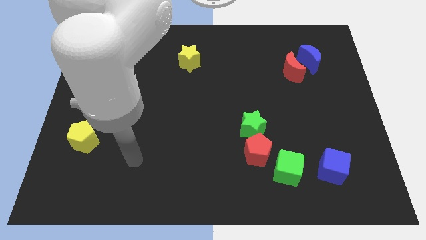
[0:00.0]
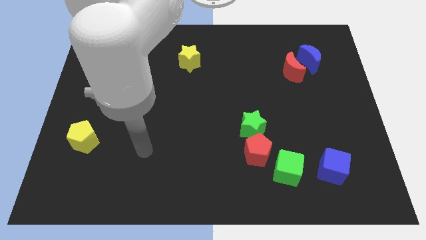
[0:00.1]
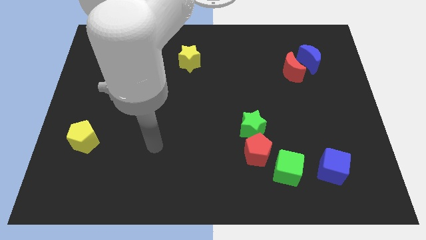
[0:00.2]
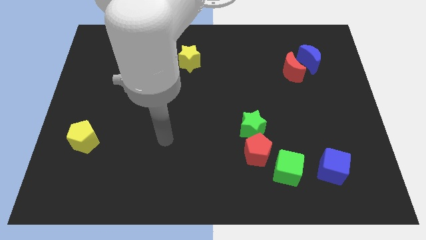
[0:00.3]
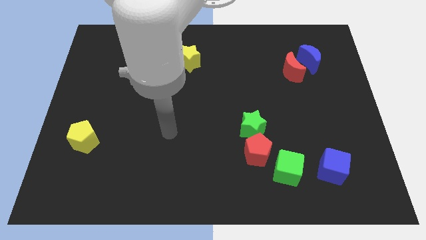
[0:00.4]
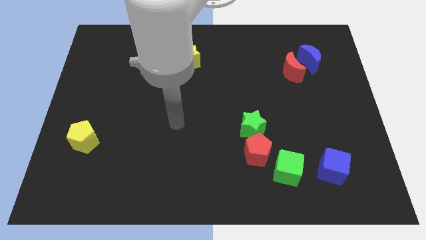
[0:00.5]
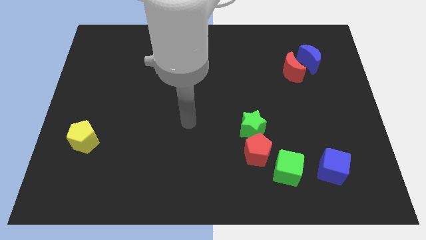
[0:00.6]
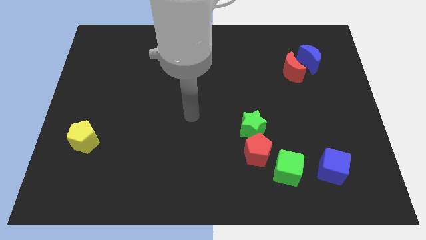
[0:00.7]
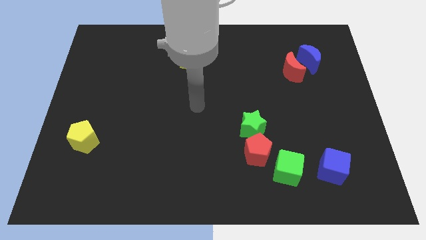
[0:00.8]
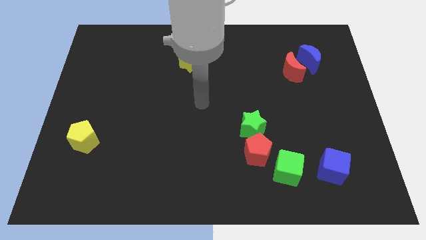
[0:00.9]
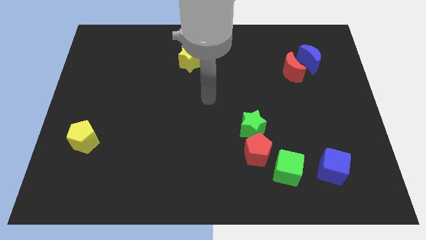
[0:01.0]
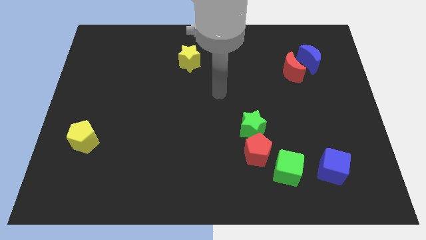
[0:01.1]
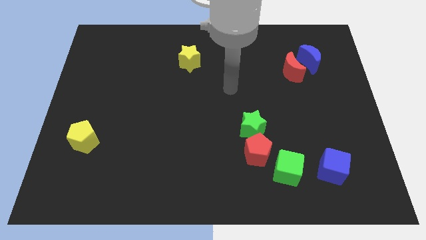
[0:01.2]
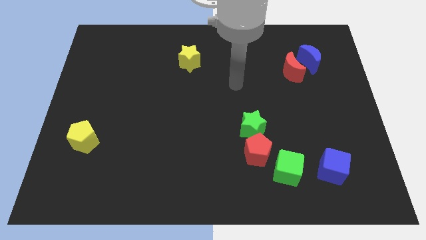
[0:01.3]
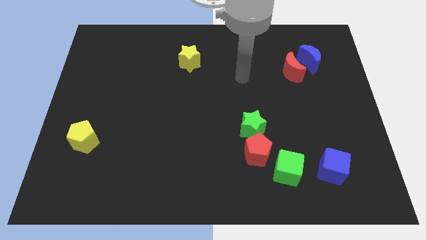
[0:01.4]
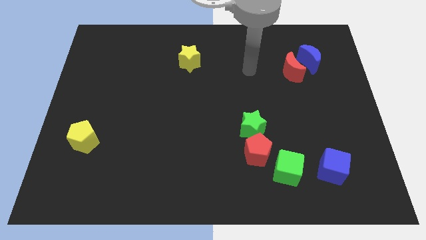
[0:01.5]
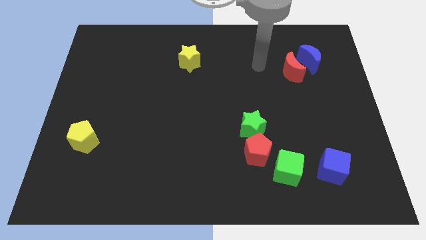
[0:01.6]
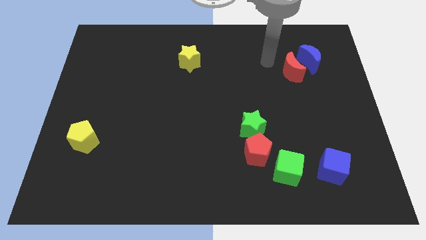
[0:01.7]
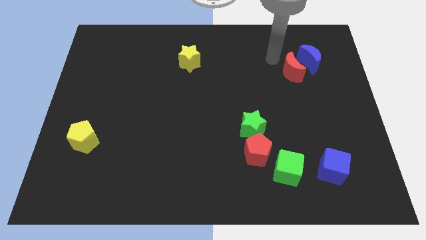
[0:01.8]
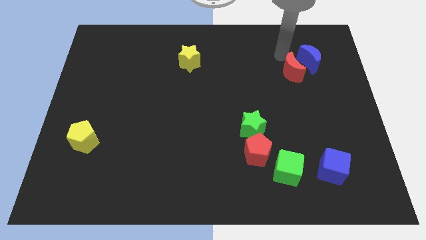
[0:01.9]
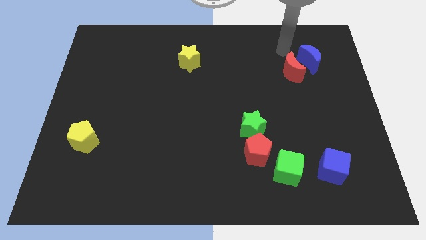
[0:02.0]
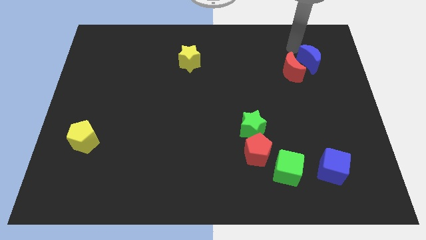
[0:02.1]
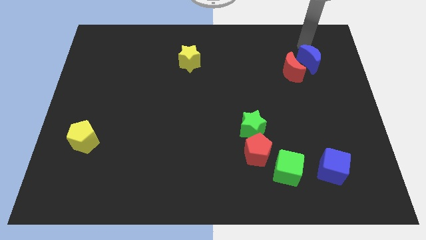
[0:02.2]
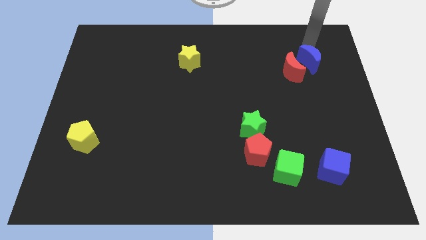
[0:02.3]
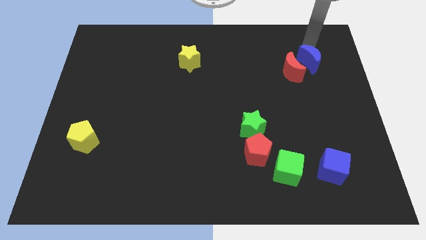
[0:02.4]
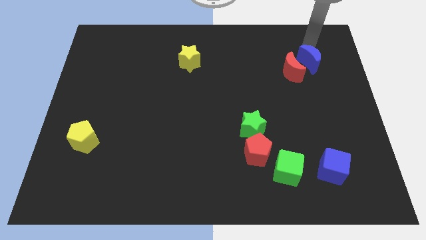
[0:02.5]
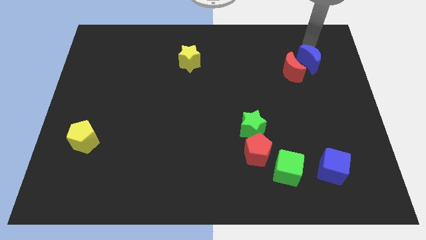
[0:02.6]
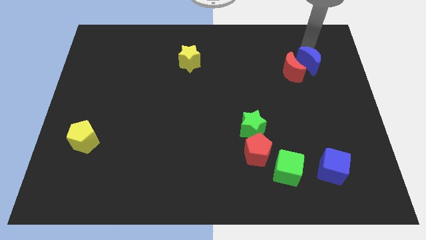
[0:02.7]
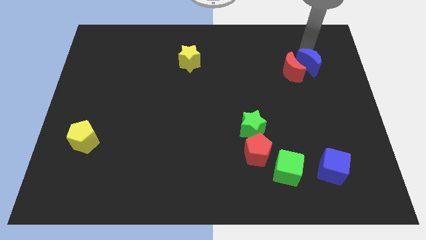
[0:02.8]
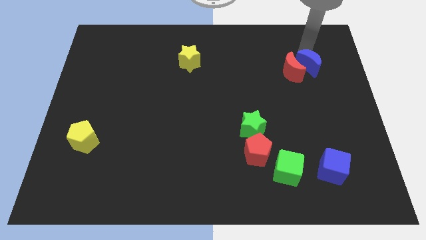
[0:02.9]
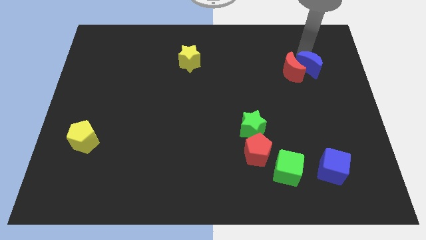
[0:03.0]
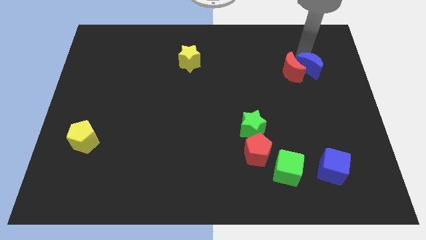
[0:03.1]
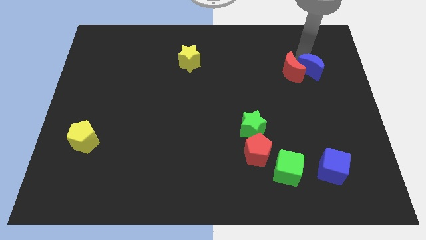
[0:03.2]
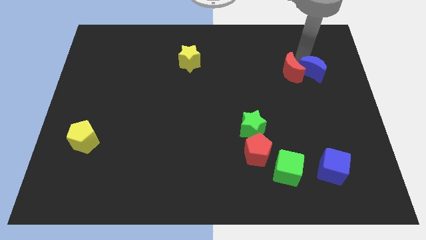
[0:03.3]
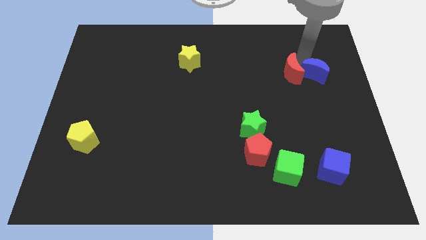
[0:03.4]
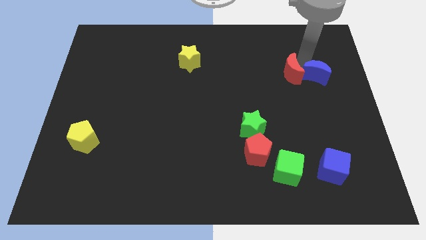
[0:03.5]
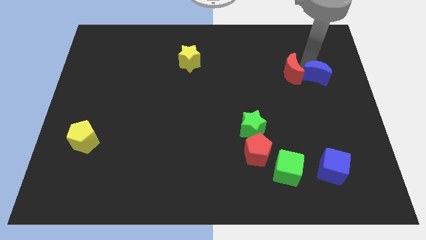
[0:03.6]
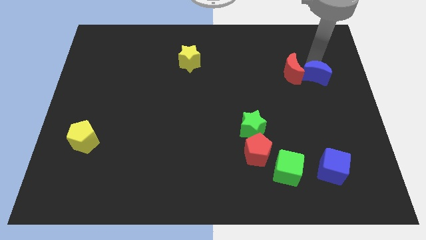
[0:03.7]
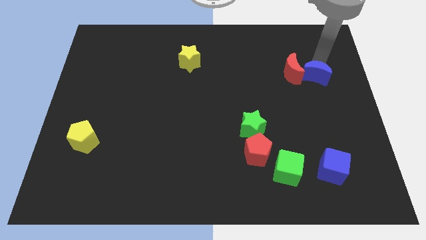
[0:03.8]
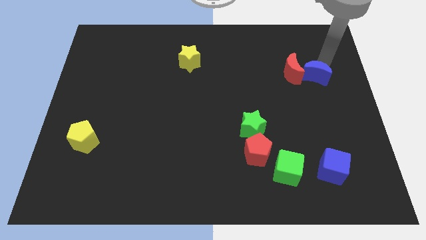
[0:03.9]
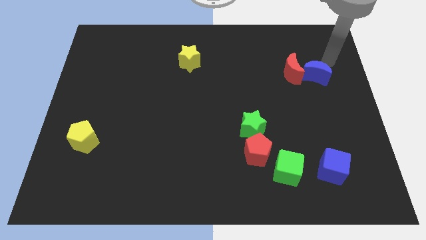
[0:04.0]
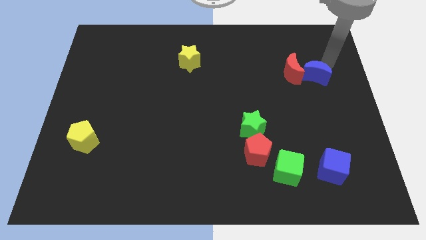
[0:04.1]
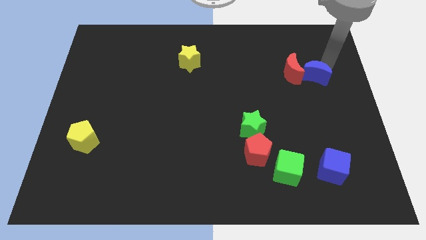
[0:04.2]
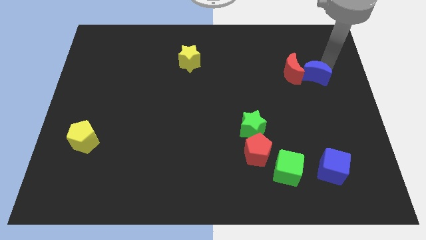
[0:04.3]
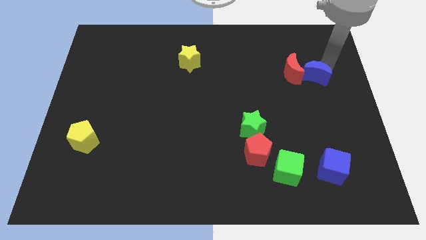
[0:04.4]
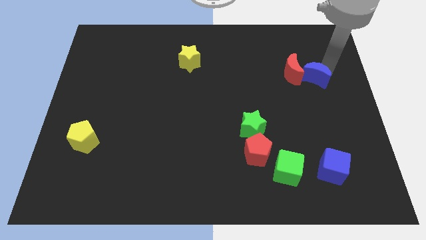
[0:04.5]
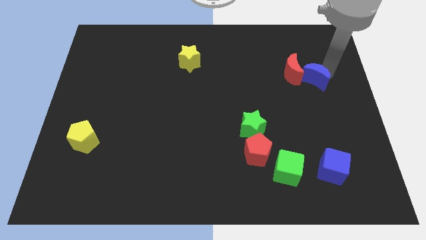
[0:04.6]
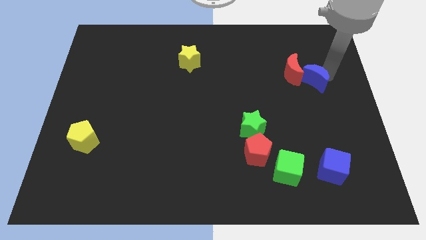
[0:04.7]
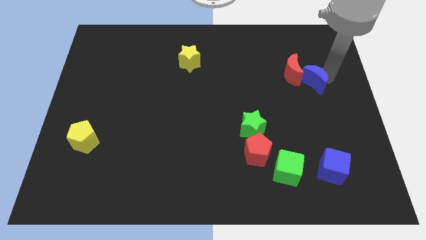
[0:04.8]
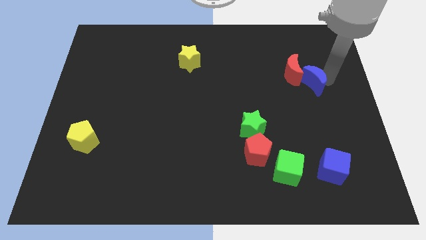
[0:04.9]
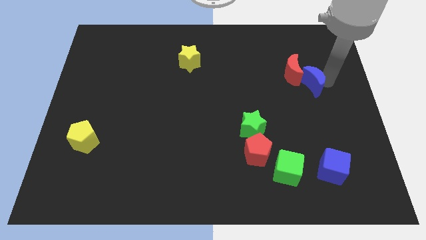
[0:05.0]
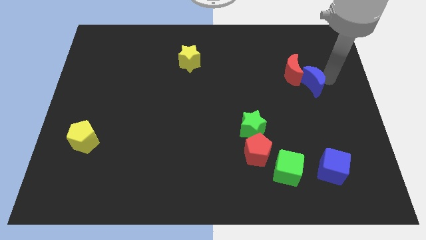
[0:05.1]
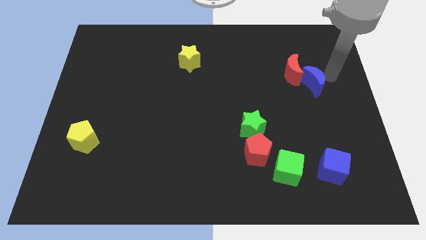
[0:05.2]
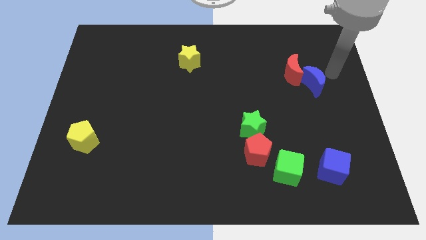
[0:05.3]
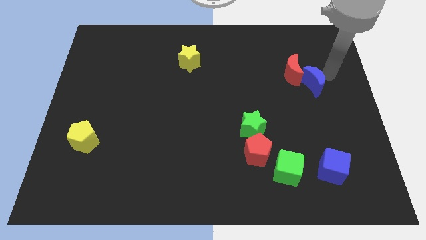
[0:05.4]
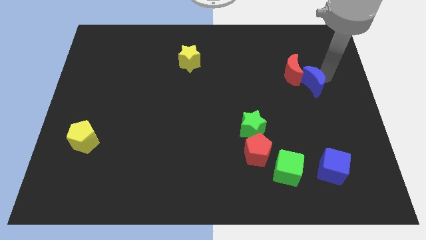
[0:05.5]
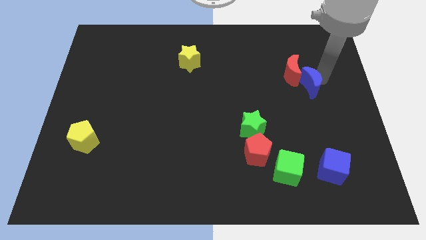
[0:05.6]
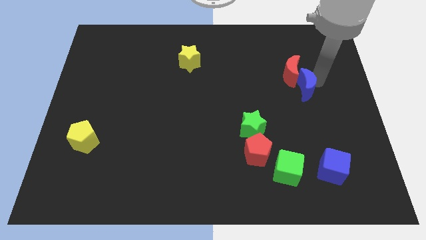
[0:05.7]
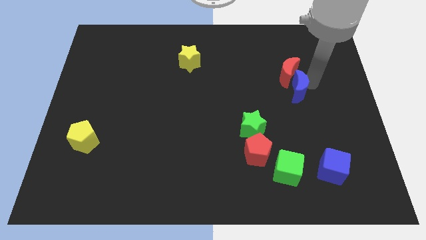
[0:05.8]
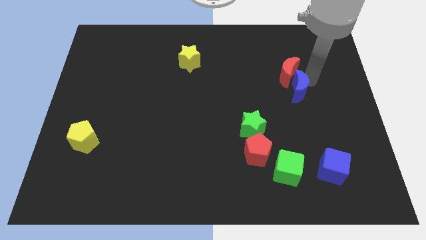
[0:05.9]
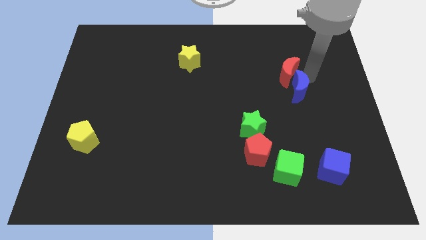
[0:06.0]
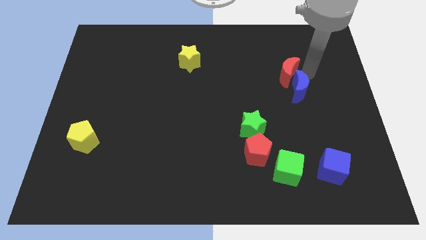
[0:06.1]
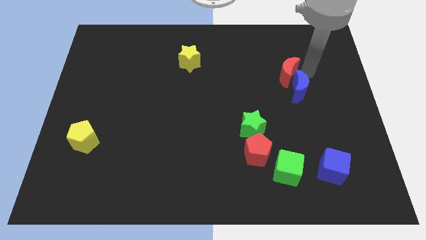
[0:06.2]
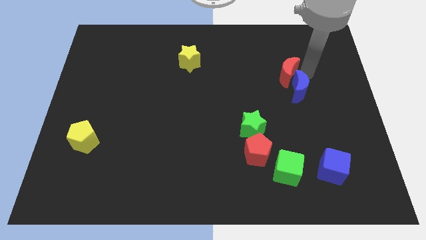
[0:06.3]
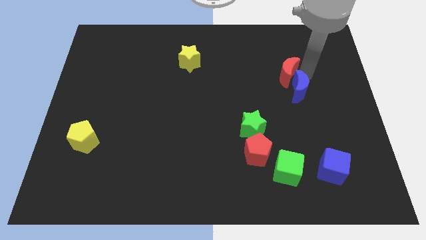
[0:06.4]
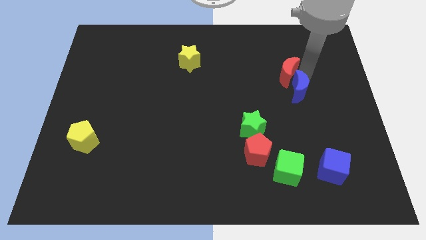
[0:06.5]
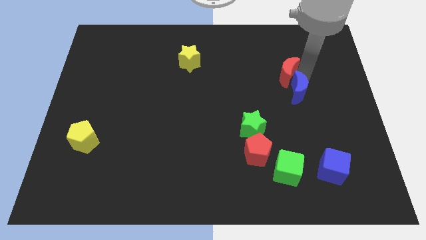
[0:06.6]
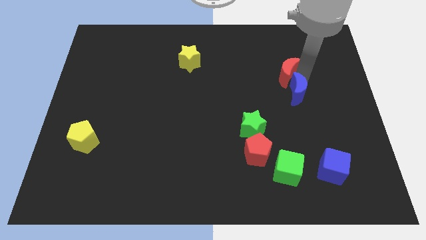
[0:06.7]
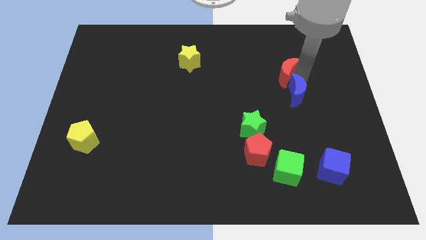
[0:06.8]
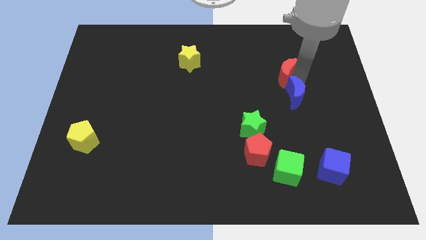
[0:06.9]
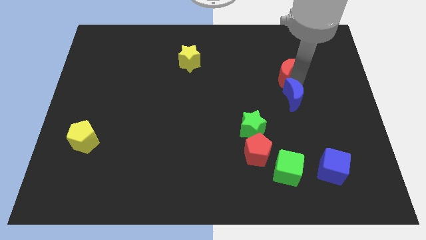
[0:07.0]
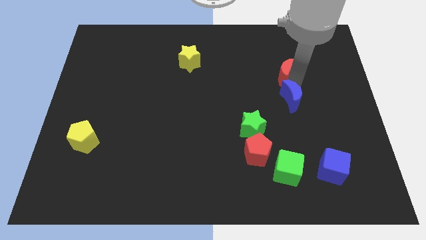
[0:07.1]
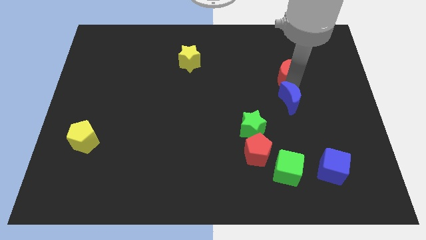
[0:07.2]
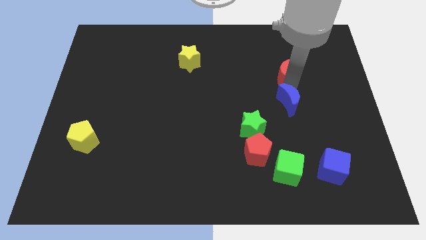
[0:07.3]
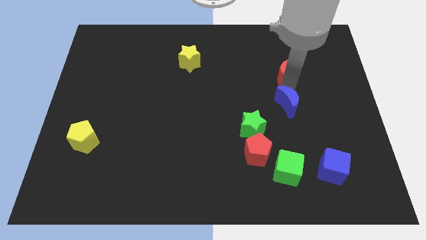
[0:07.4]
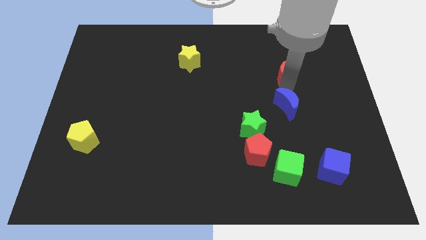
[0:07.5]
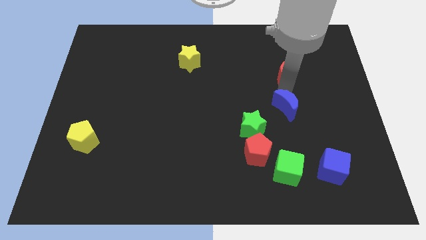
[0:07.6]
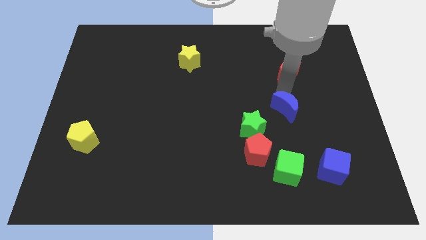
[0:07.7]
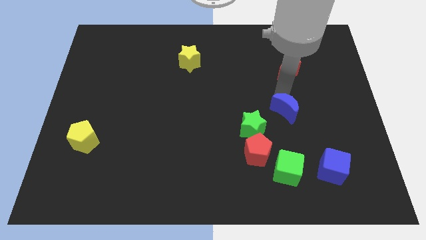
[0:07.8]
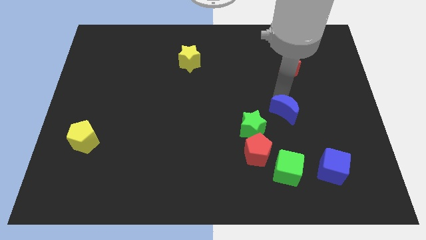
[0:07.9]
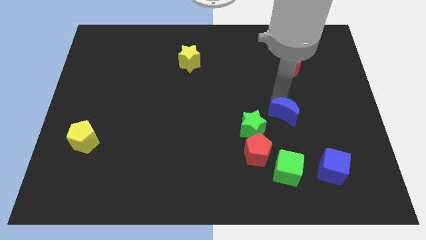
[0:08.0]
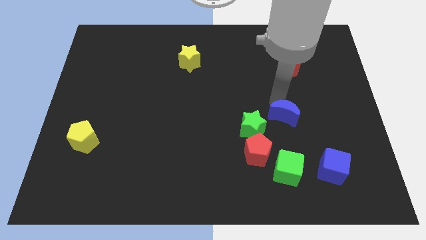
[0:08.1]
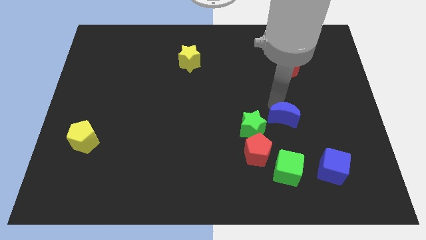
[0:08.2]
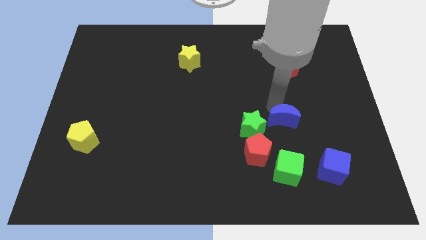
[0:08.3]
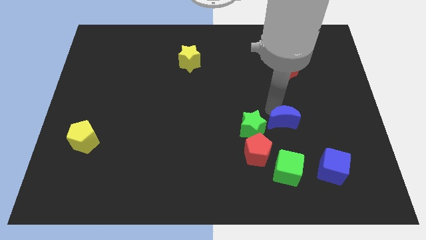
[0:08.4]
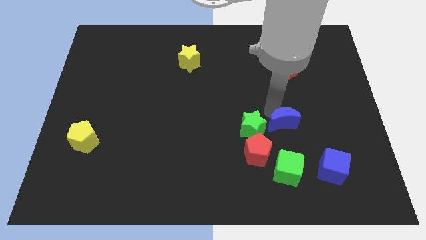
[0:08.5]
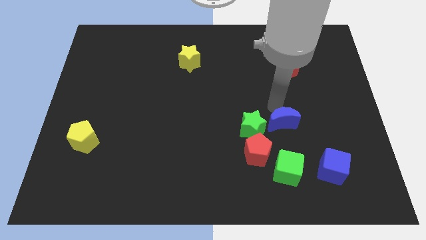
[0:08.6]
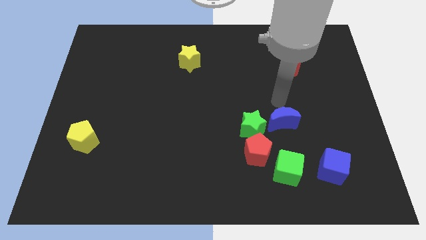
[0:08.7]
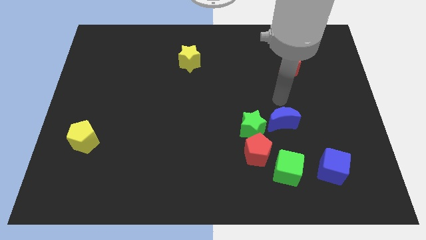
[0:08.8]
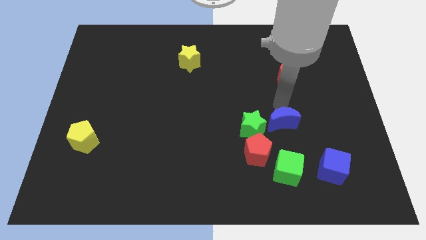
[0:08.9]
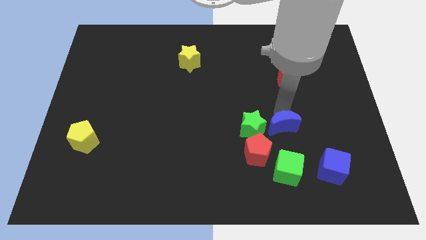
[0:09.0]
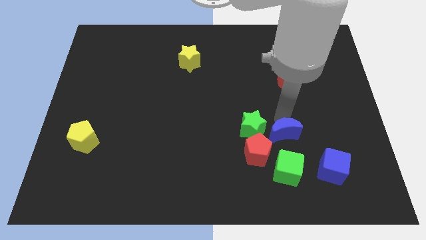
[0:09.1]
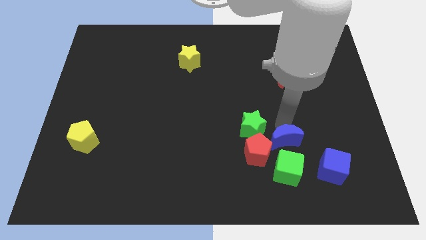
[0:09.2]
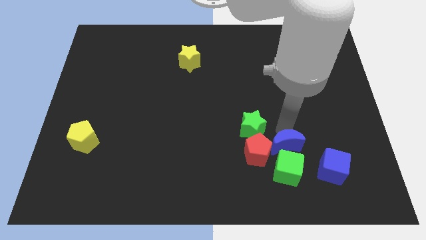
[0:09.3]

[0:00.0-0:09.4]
put the blue moon next to the green cube
